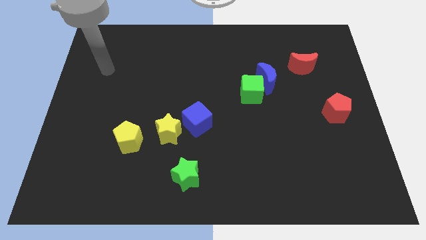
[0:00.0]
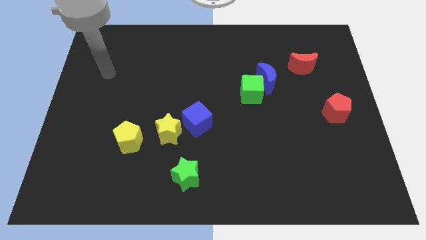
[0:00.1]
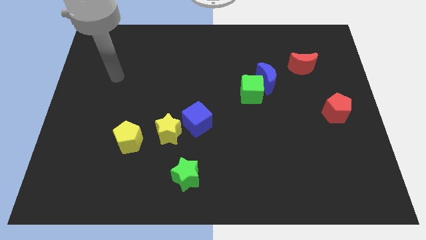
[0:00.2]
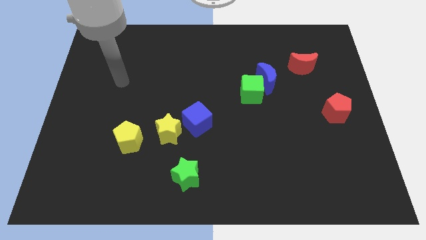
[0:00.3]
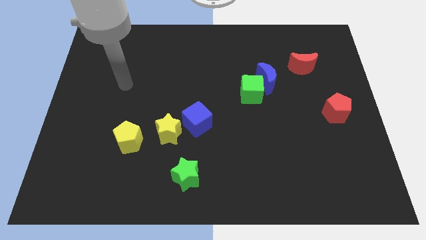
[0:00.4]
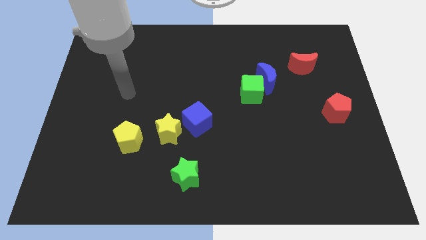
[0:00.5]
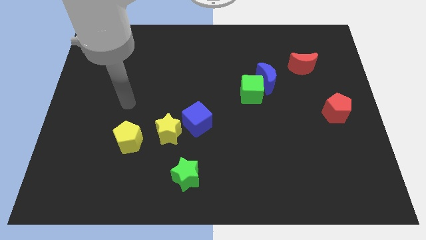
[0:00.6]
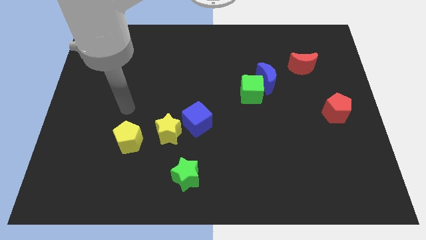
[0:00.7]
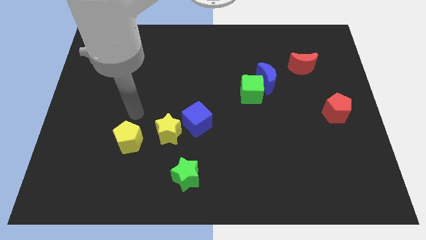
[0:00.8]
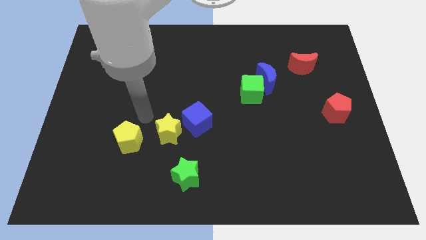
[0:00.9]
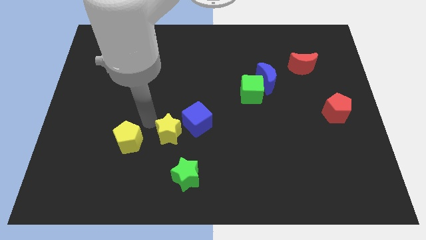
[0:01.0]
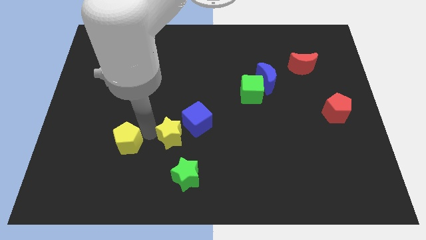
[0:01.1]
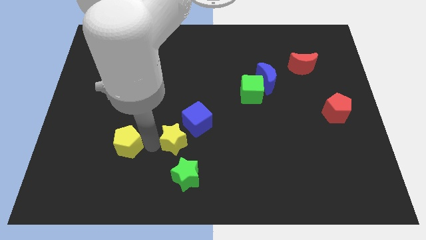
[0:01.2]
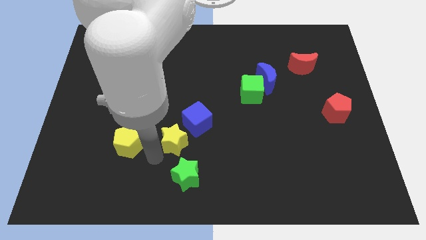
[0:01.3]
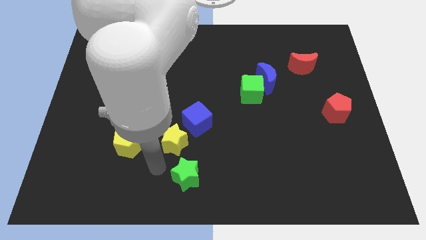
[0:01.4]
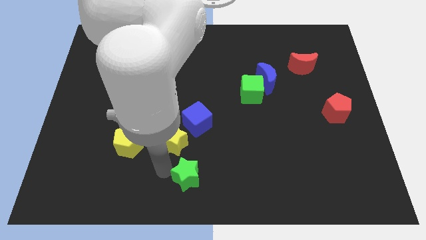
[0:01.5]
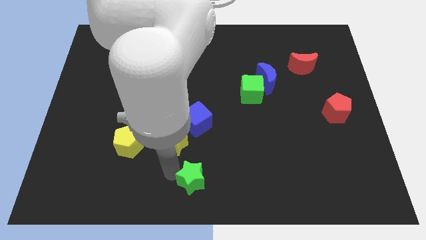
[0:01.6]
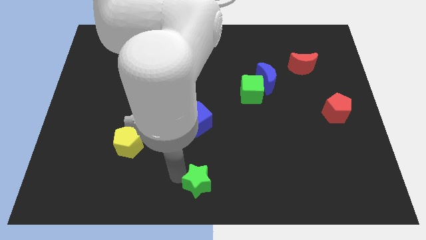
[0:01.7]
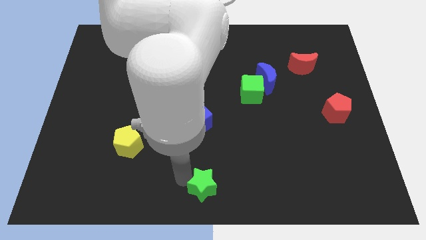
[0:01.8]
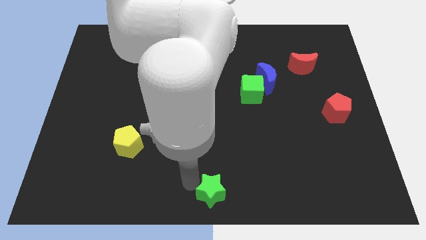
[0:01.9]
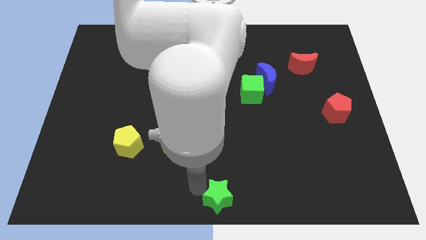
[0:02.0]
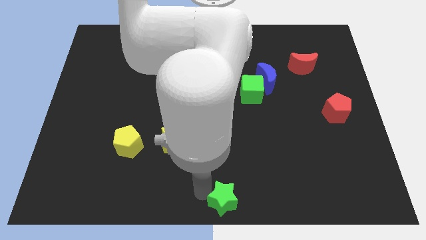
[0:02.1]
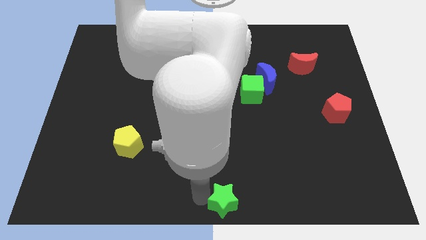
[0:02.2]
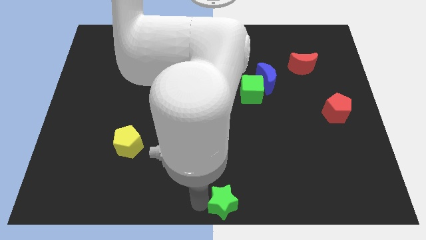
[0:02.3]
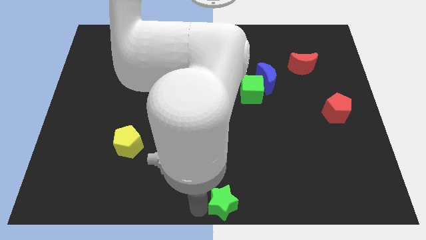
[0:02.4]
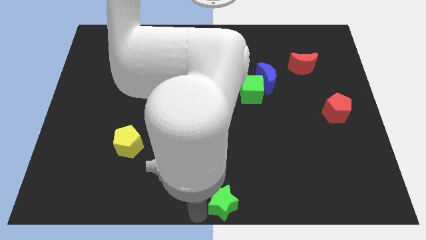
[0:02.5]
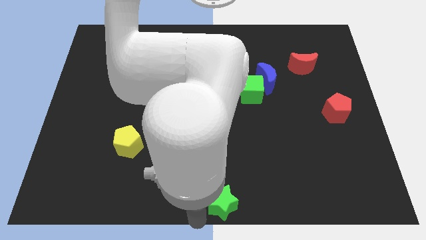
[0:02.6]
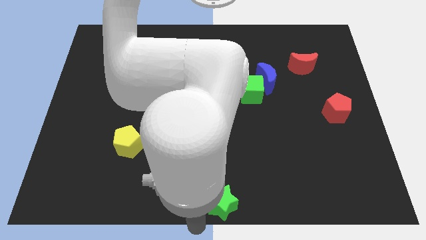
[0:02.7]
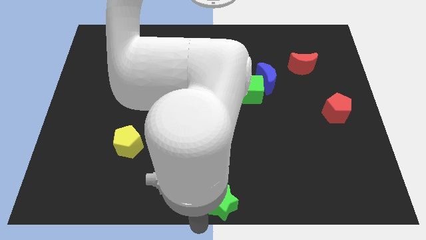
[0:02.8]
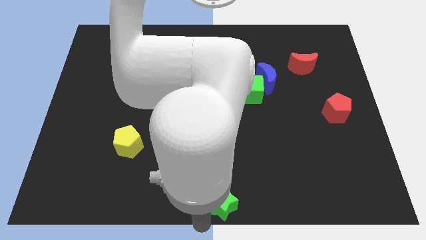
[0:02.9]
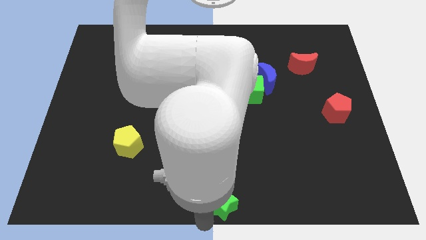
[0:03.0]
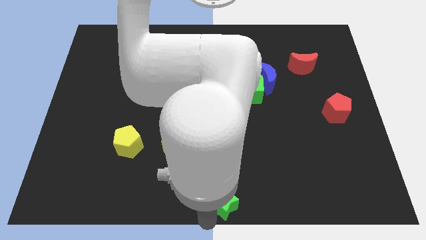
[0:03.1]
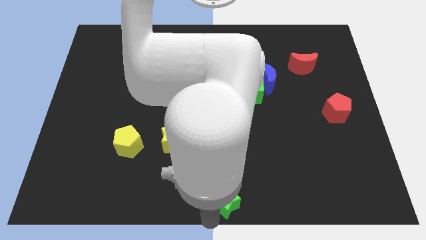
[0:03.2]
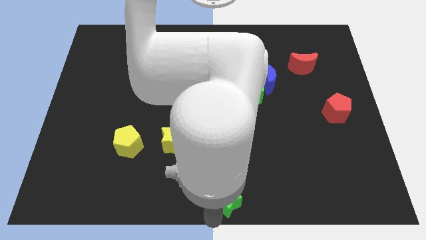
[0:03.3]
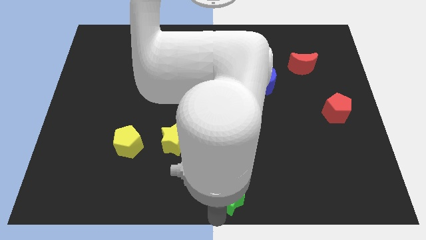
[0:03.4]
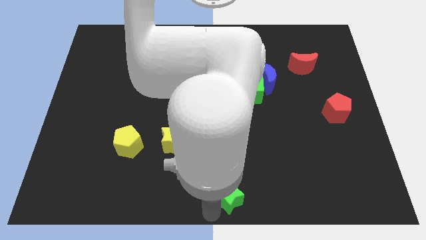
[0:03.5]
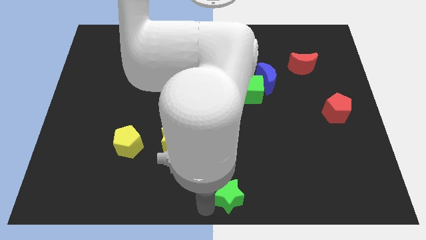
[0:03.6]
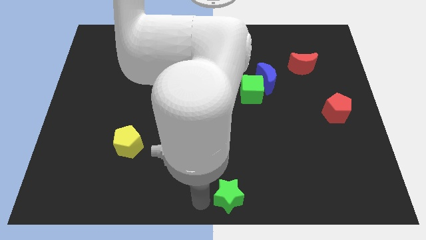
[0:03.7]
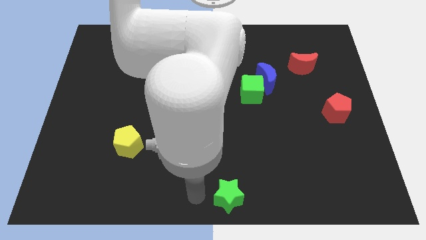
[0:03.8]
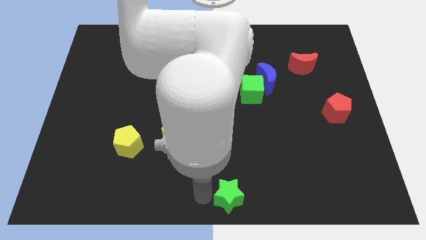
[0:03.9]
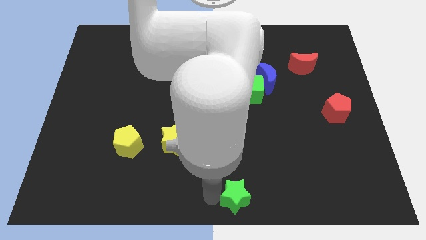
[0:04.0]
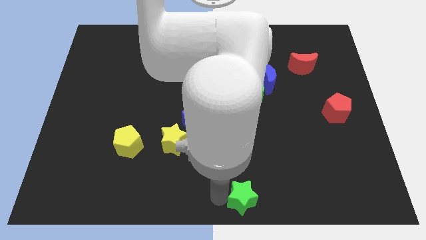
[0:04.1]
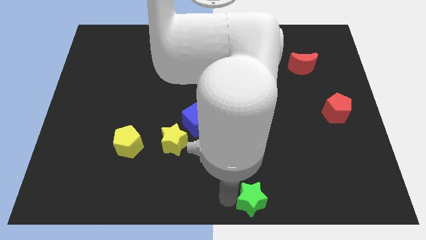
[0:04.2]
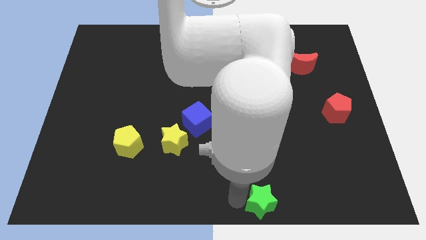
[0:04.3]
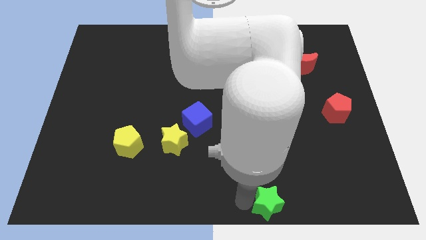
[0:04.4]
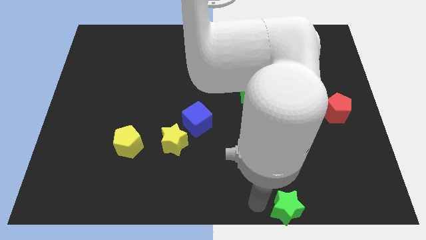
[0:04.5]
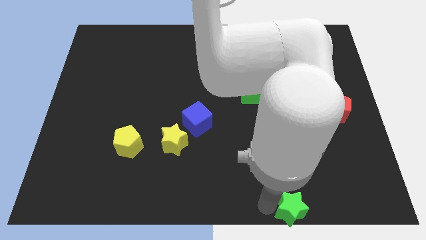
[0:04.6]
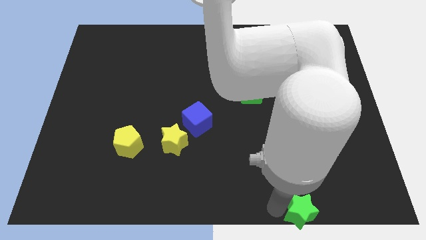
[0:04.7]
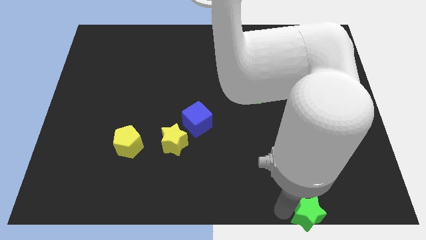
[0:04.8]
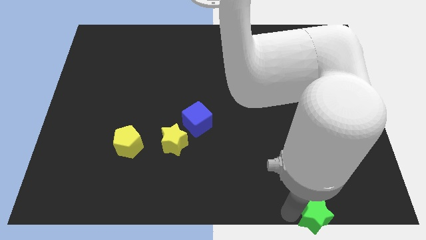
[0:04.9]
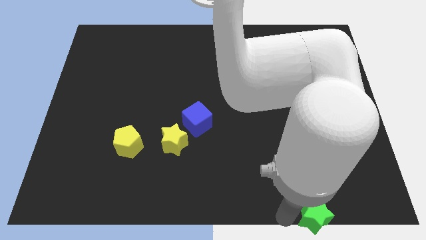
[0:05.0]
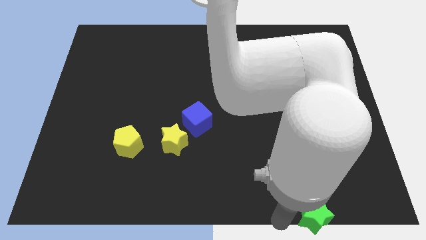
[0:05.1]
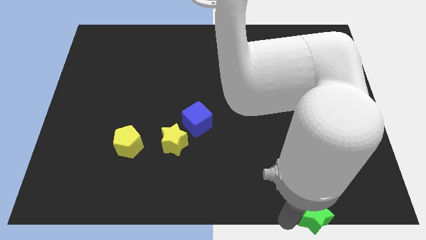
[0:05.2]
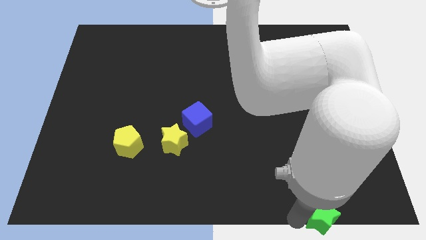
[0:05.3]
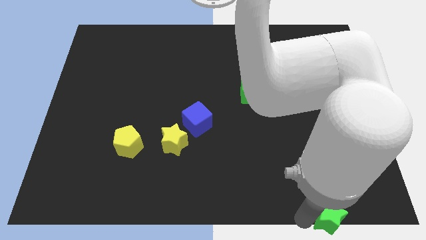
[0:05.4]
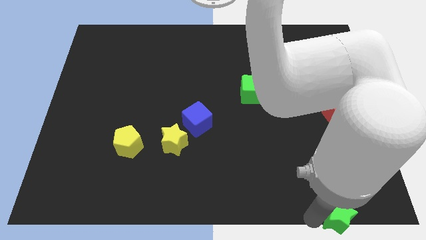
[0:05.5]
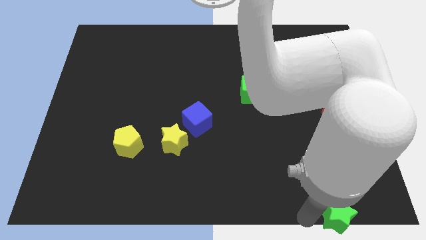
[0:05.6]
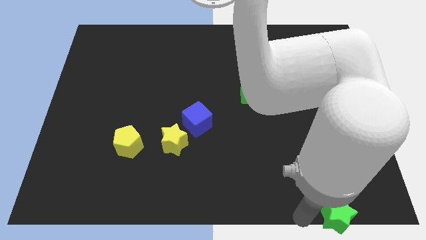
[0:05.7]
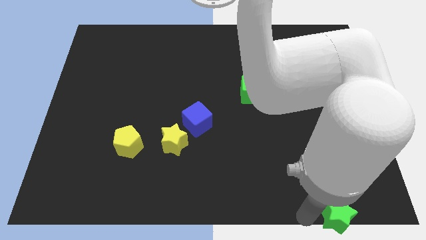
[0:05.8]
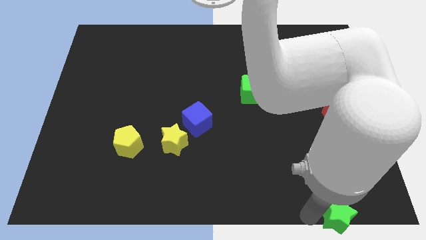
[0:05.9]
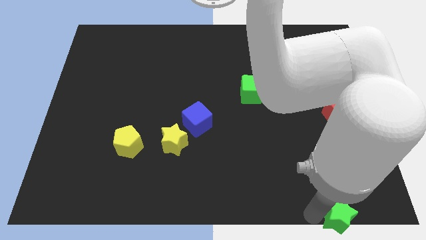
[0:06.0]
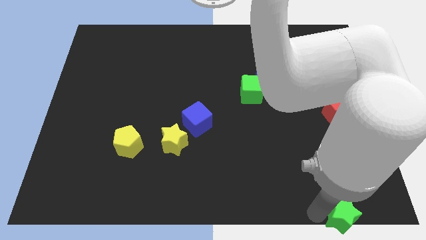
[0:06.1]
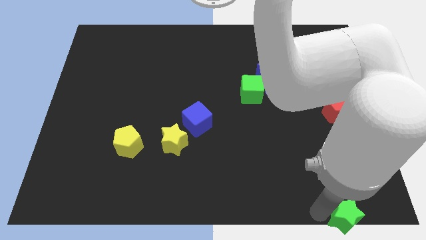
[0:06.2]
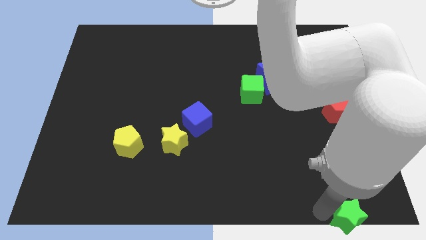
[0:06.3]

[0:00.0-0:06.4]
put the green star to the lower right corner
